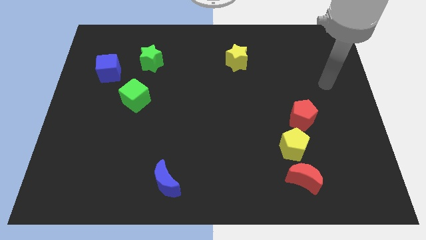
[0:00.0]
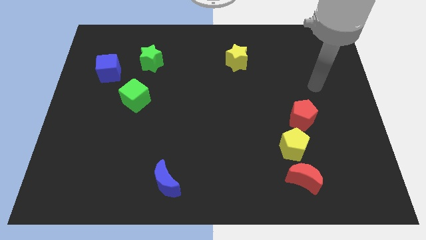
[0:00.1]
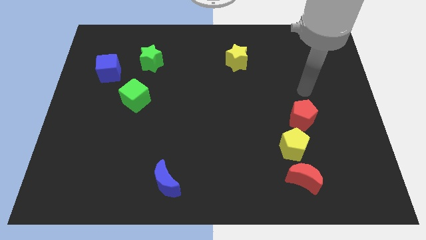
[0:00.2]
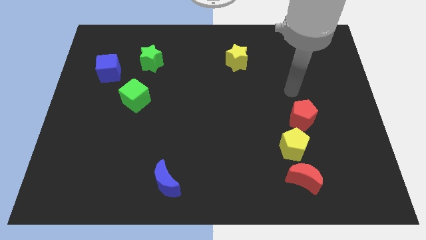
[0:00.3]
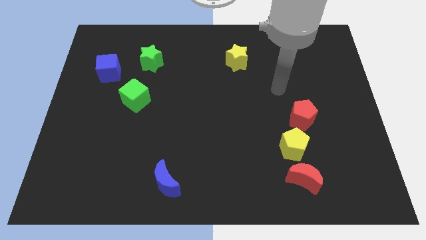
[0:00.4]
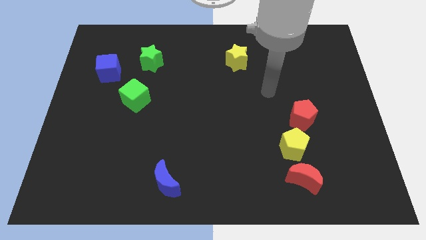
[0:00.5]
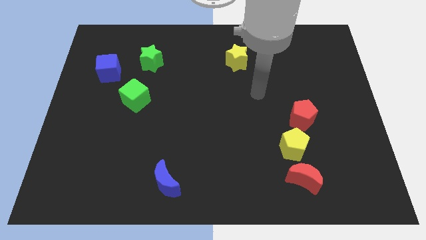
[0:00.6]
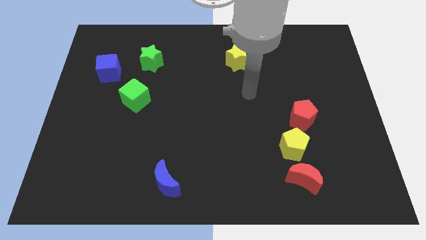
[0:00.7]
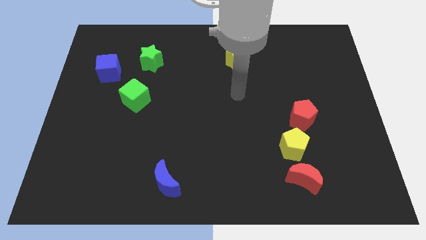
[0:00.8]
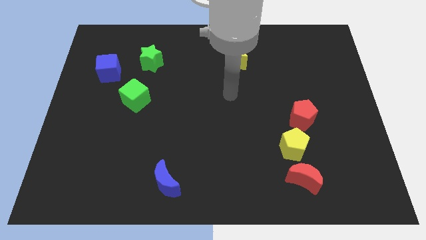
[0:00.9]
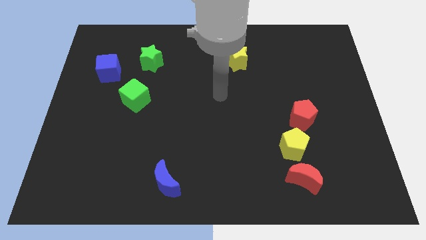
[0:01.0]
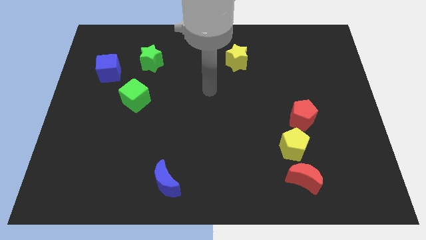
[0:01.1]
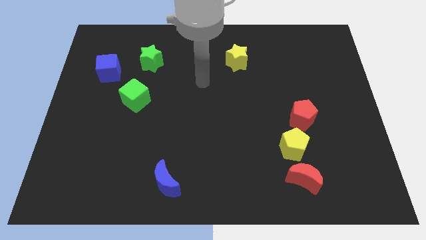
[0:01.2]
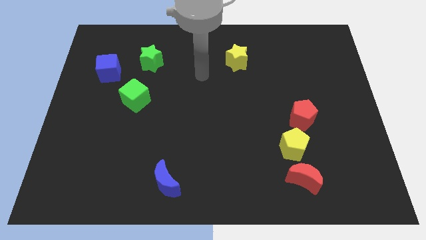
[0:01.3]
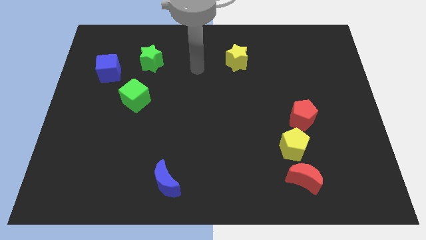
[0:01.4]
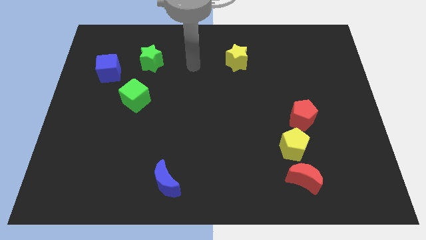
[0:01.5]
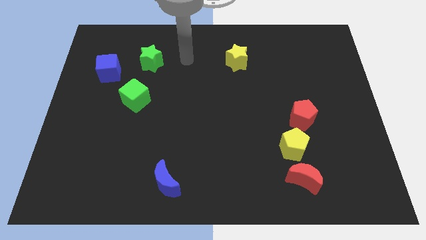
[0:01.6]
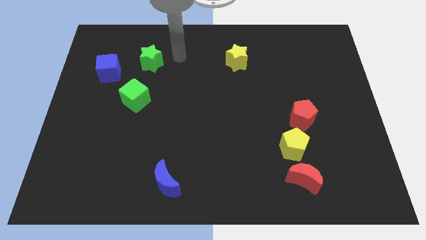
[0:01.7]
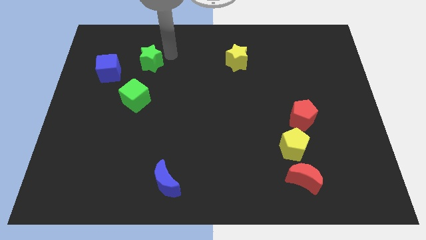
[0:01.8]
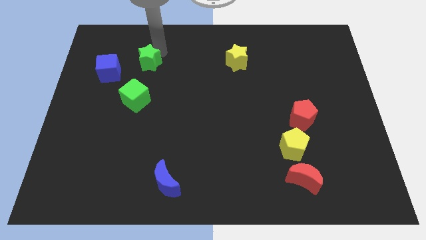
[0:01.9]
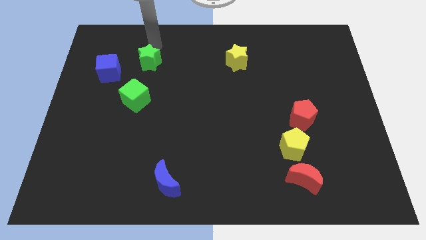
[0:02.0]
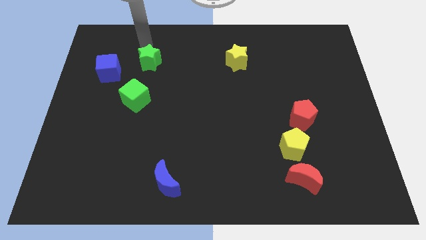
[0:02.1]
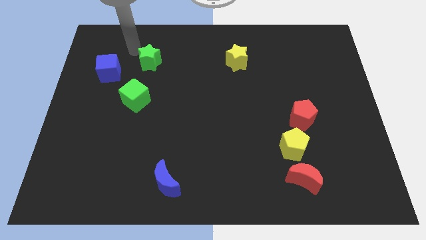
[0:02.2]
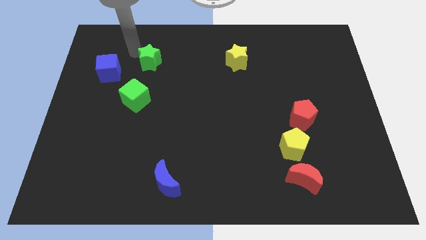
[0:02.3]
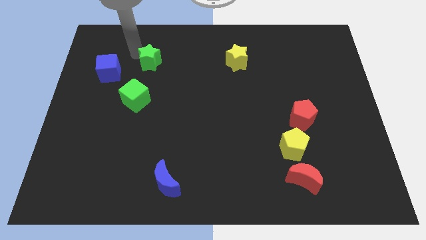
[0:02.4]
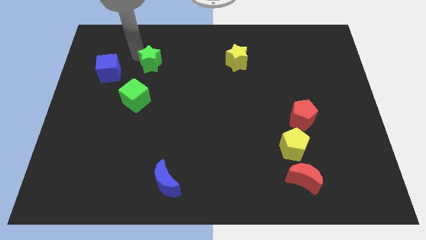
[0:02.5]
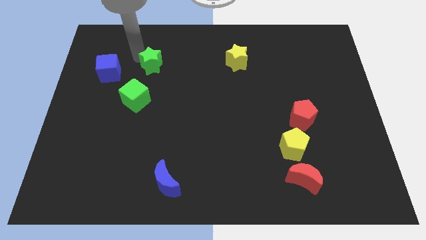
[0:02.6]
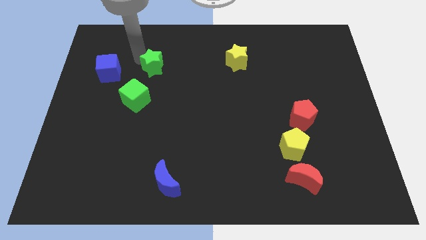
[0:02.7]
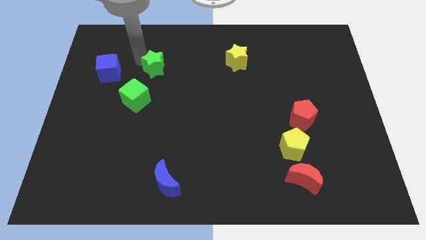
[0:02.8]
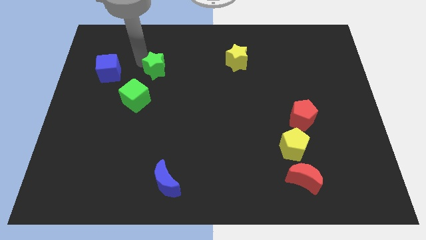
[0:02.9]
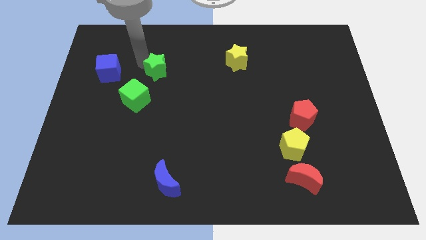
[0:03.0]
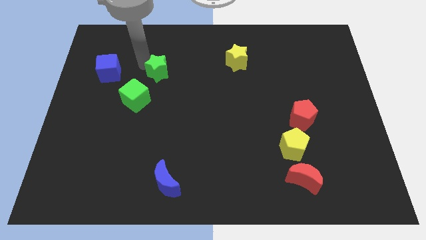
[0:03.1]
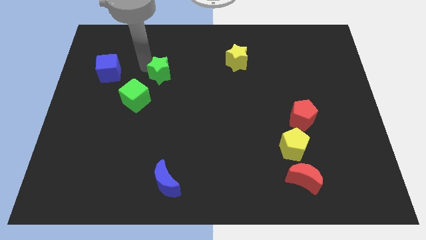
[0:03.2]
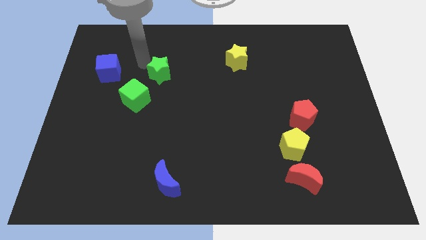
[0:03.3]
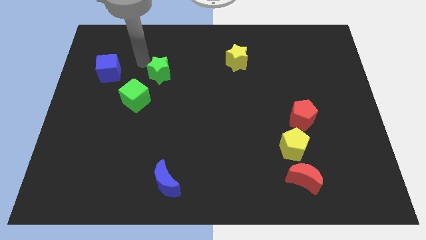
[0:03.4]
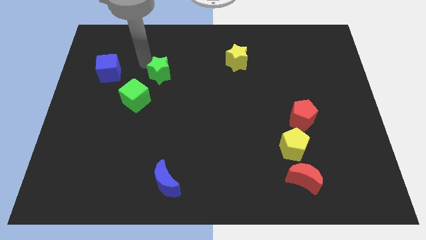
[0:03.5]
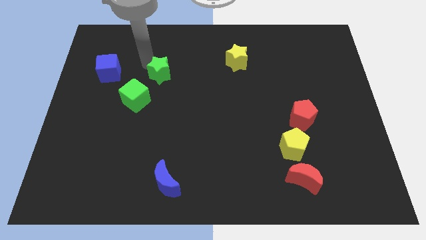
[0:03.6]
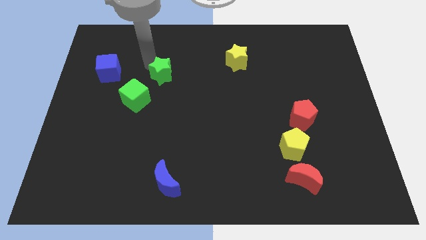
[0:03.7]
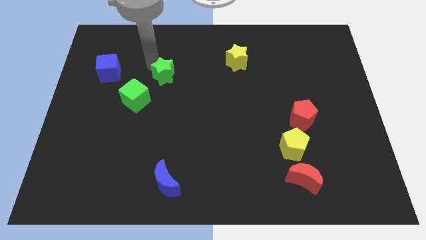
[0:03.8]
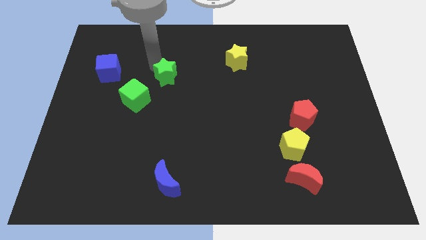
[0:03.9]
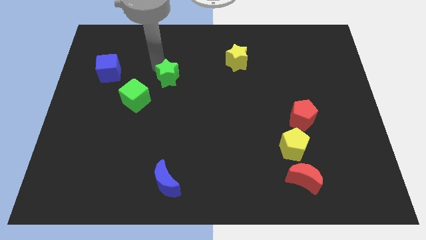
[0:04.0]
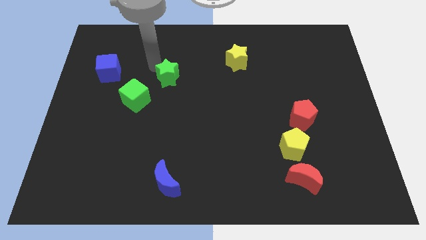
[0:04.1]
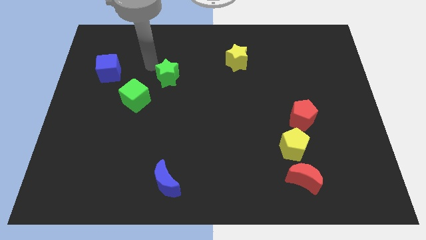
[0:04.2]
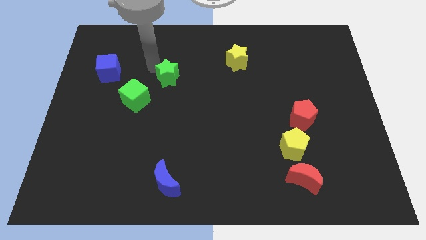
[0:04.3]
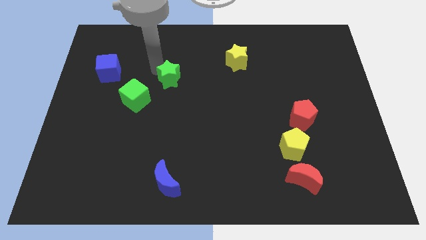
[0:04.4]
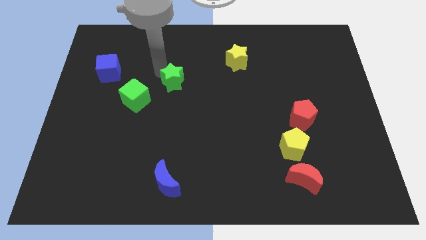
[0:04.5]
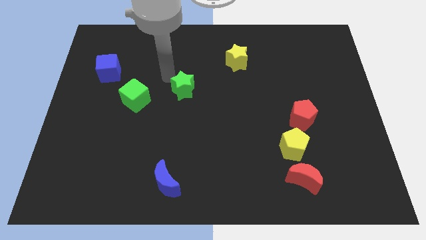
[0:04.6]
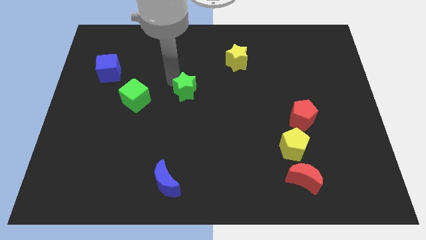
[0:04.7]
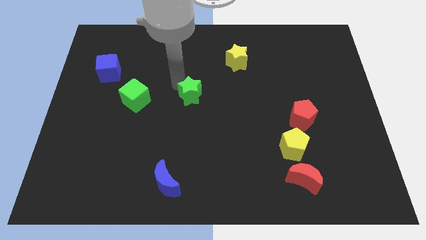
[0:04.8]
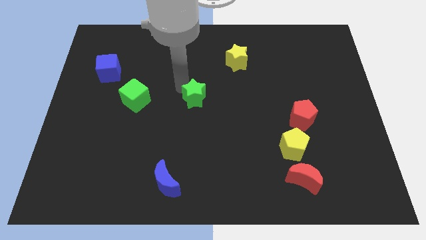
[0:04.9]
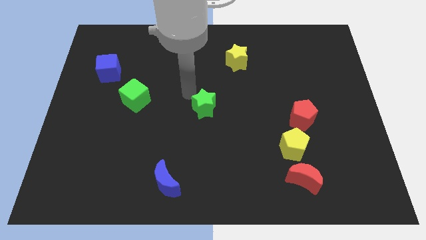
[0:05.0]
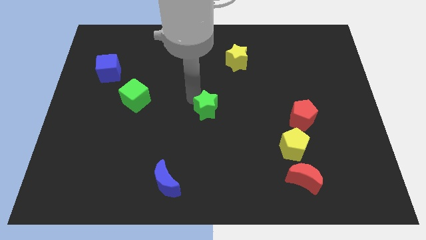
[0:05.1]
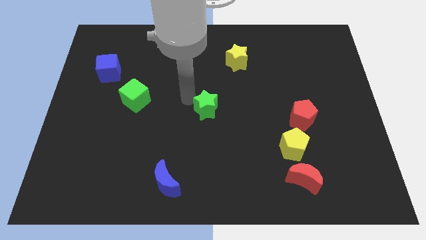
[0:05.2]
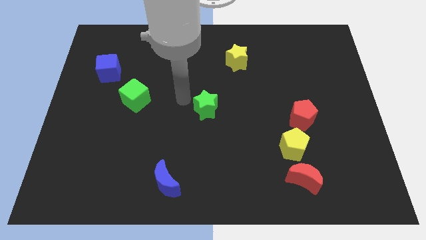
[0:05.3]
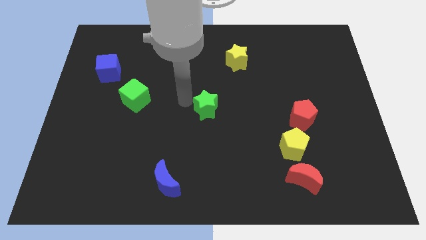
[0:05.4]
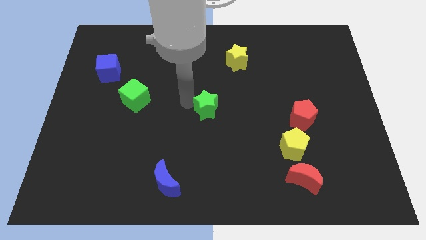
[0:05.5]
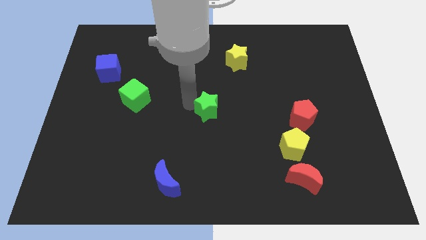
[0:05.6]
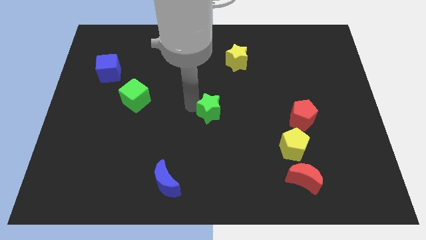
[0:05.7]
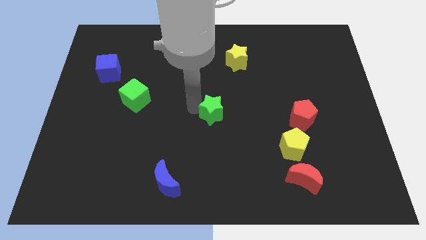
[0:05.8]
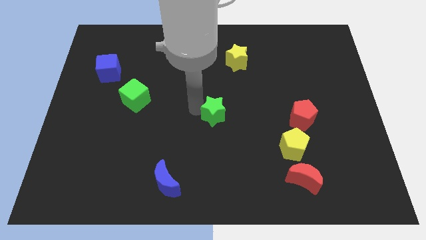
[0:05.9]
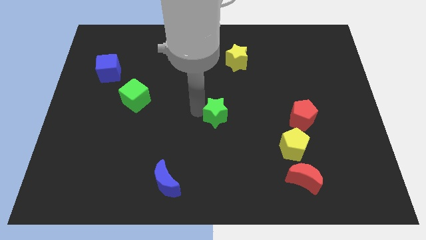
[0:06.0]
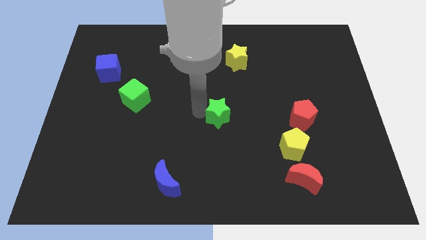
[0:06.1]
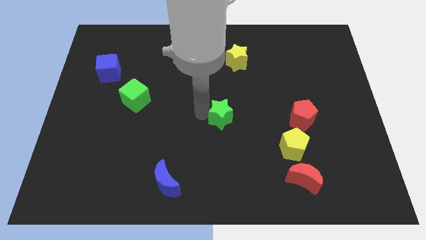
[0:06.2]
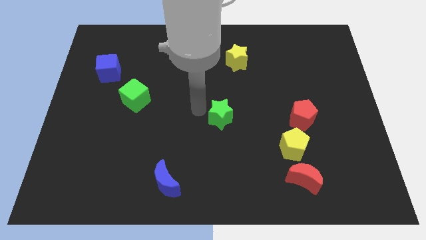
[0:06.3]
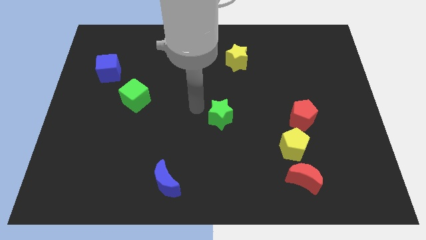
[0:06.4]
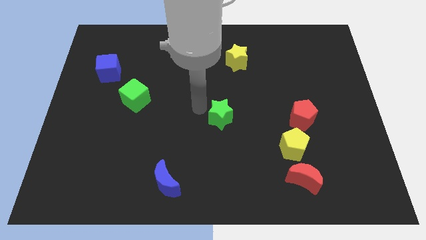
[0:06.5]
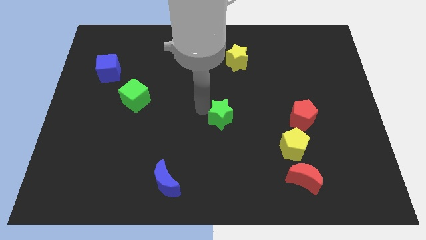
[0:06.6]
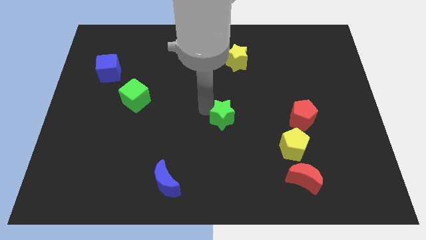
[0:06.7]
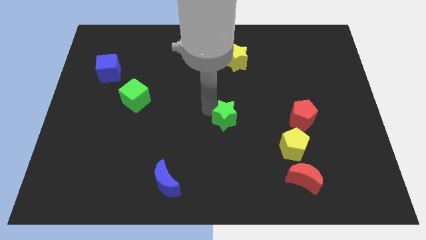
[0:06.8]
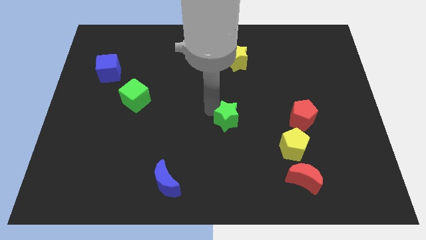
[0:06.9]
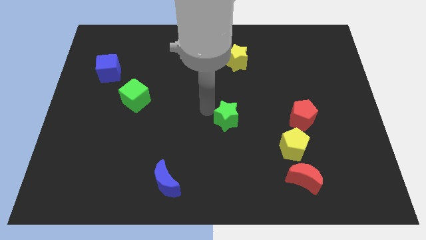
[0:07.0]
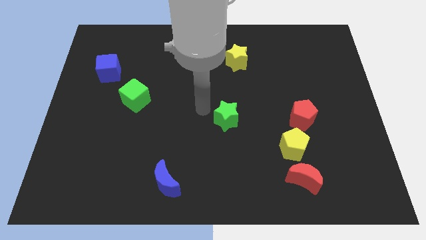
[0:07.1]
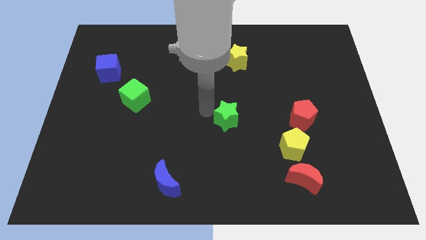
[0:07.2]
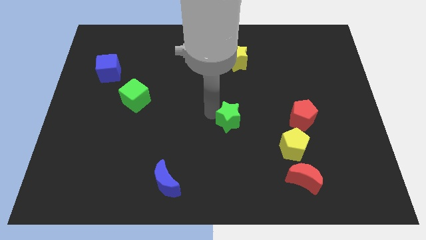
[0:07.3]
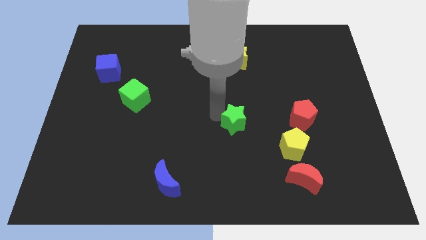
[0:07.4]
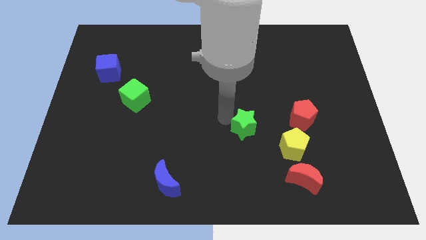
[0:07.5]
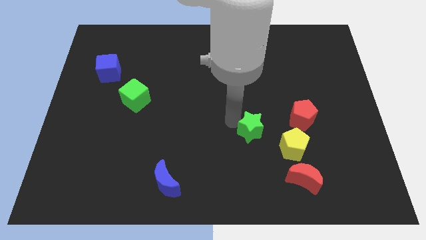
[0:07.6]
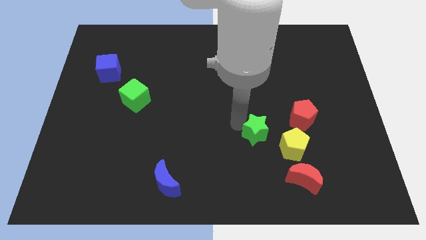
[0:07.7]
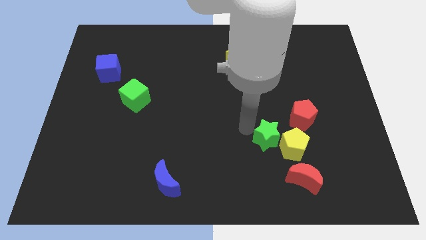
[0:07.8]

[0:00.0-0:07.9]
slide the green star close to the yellow pentagon
